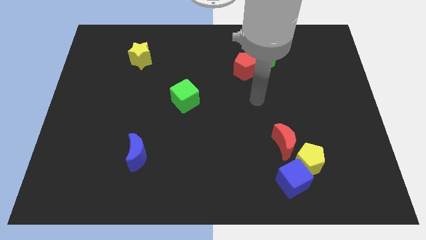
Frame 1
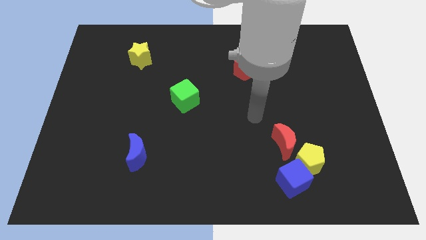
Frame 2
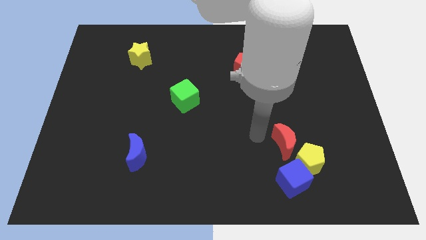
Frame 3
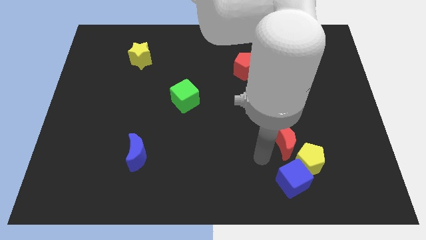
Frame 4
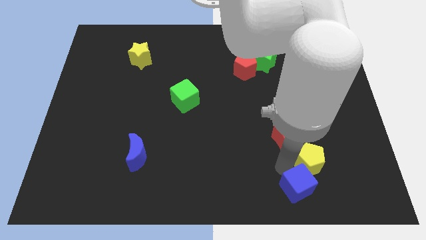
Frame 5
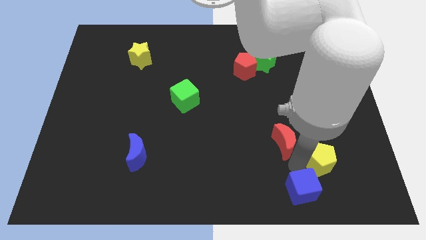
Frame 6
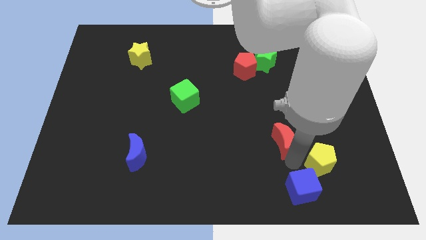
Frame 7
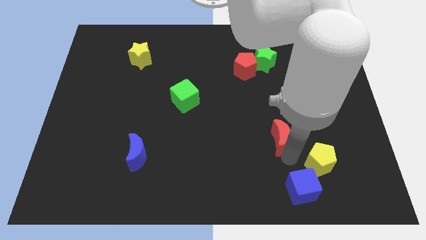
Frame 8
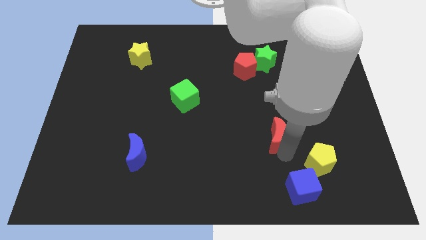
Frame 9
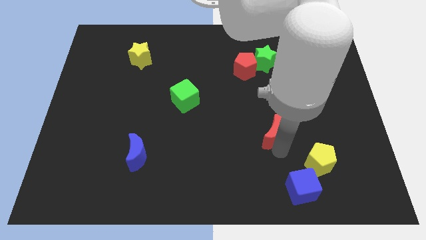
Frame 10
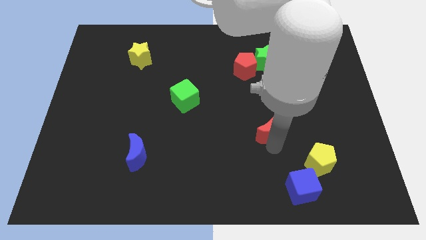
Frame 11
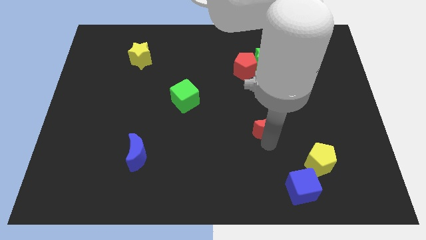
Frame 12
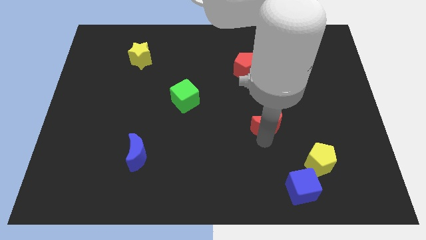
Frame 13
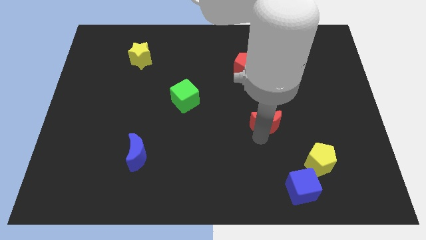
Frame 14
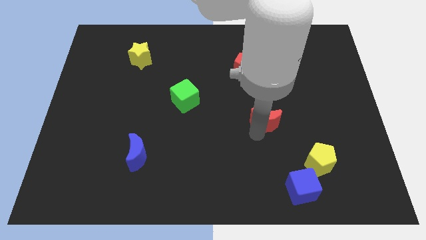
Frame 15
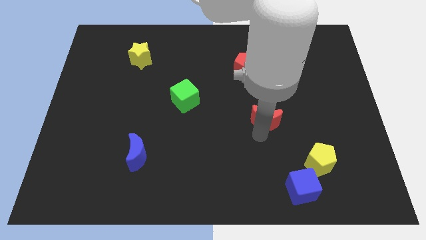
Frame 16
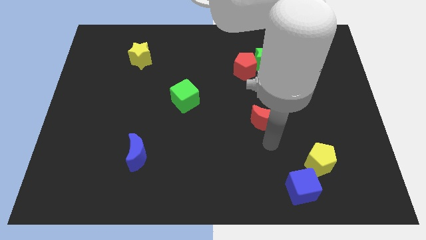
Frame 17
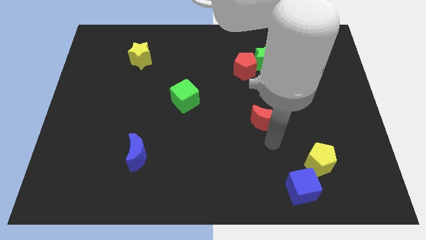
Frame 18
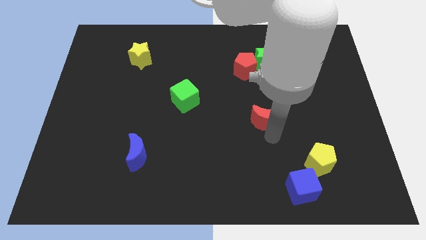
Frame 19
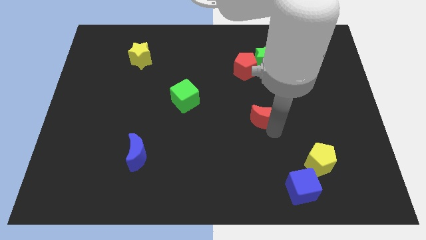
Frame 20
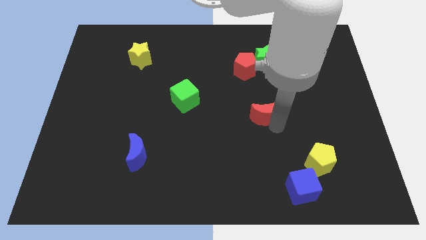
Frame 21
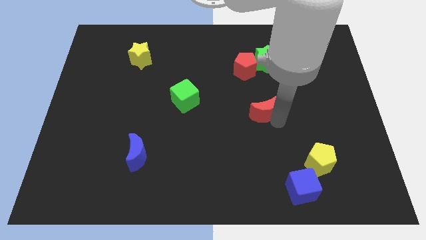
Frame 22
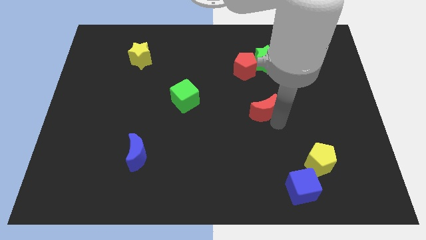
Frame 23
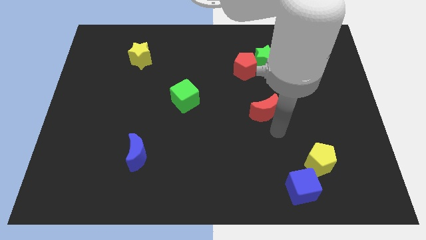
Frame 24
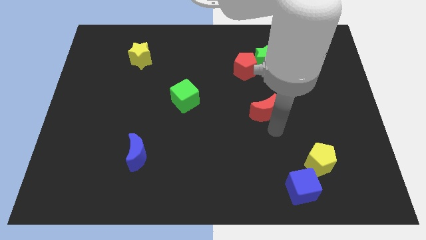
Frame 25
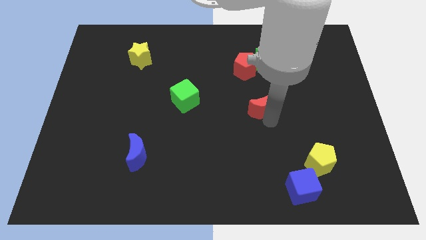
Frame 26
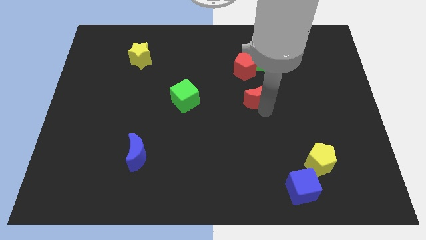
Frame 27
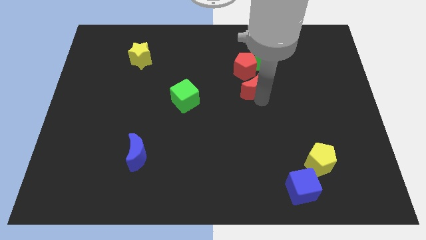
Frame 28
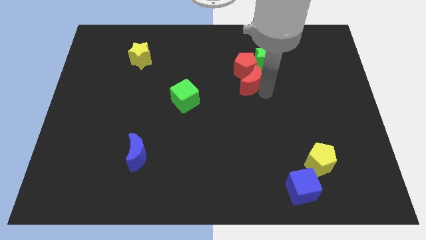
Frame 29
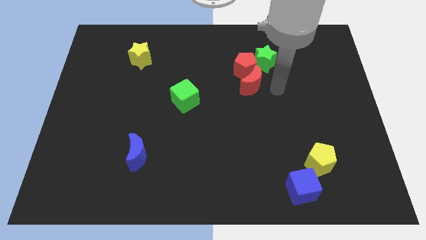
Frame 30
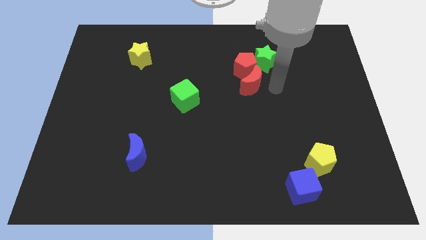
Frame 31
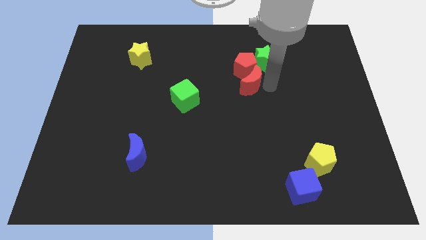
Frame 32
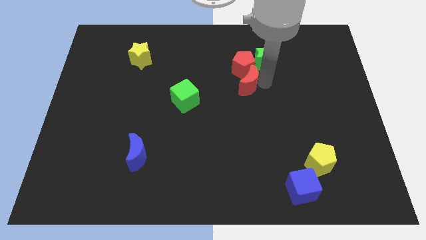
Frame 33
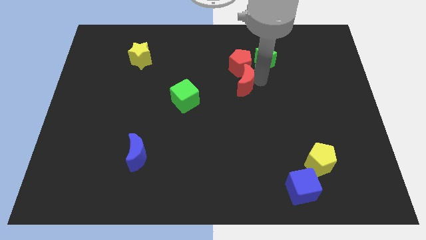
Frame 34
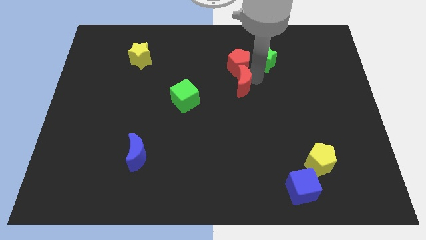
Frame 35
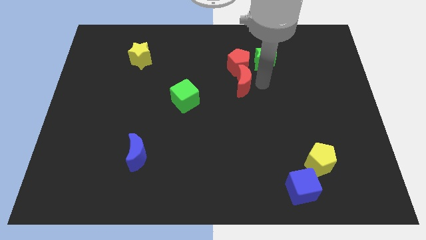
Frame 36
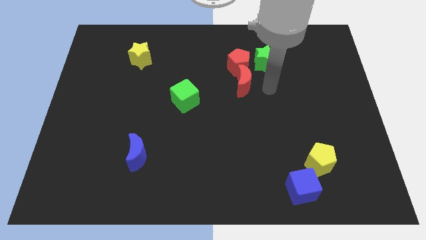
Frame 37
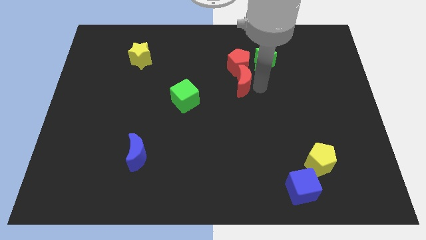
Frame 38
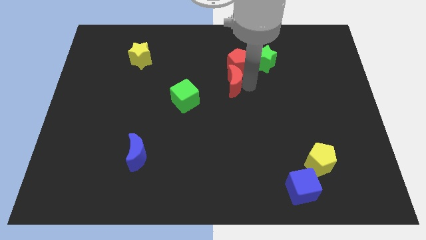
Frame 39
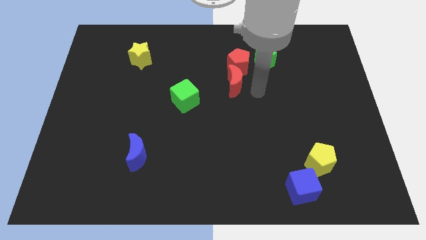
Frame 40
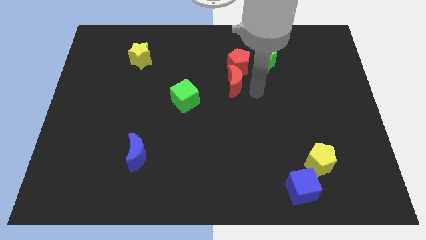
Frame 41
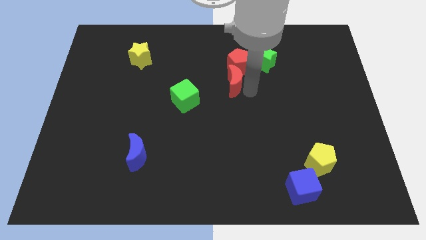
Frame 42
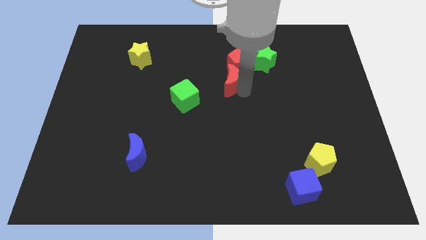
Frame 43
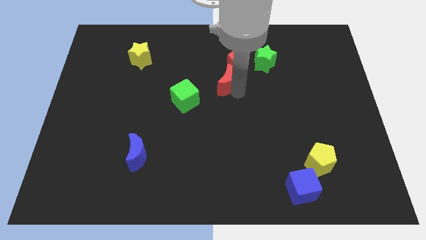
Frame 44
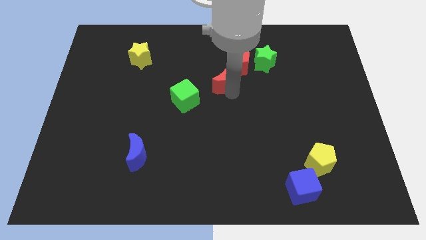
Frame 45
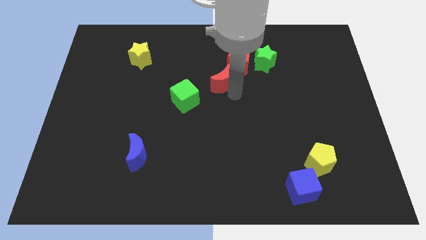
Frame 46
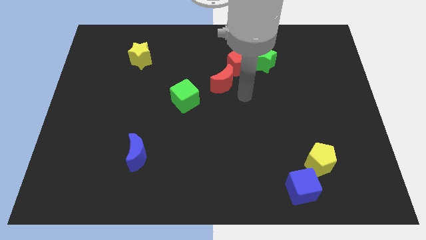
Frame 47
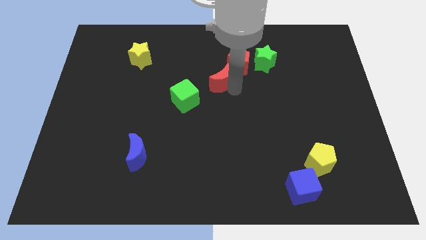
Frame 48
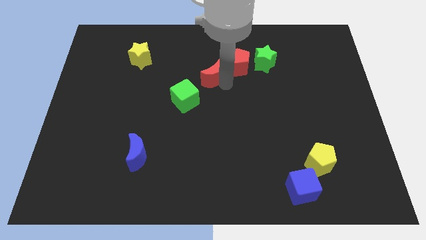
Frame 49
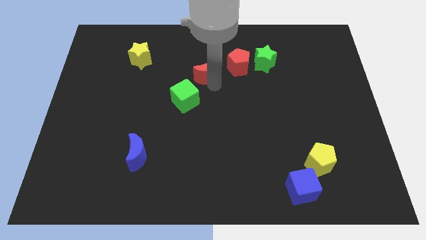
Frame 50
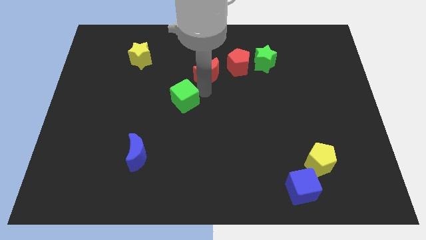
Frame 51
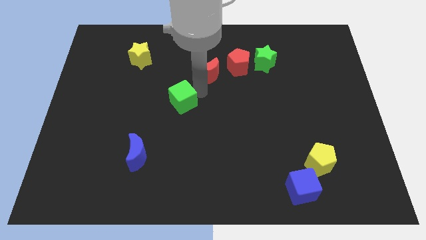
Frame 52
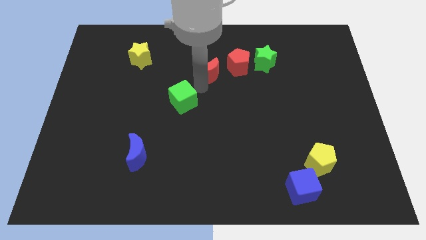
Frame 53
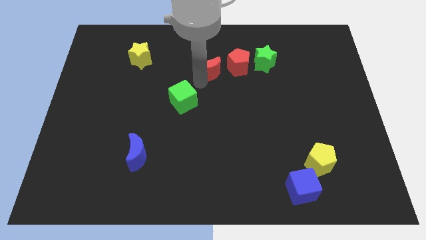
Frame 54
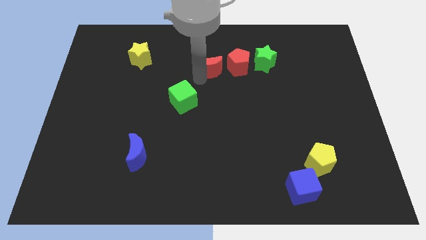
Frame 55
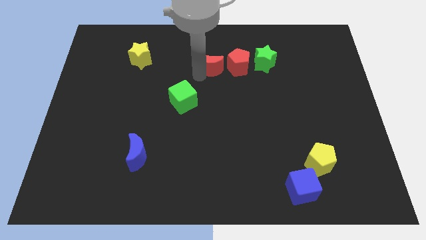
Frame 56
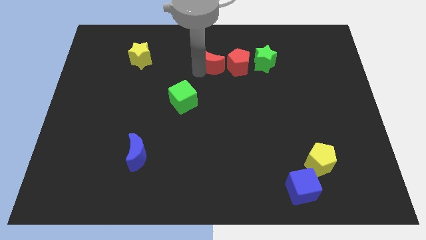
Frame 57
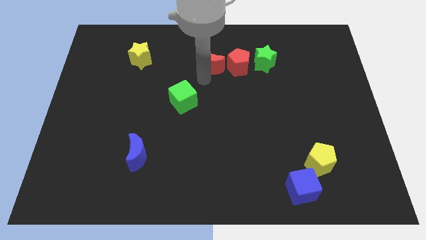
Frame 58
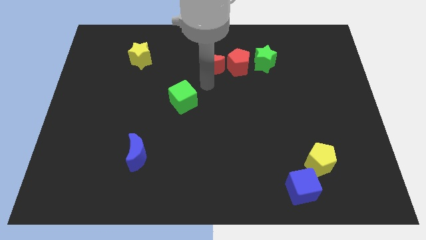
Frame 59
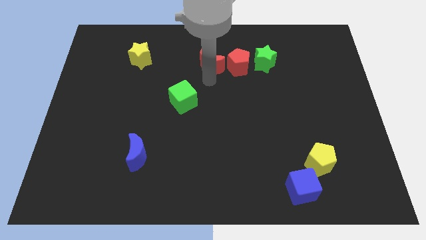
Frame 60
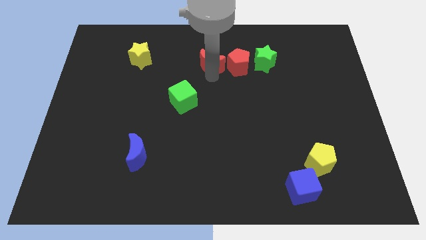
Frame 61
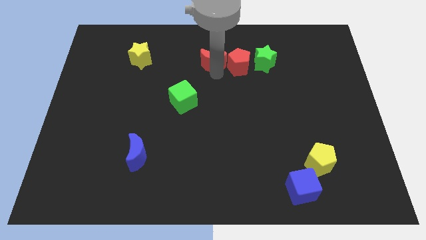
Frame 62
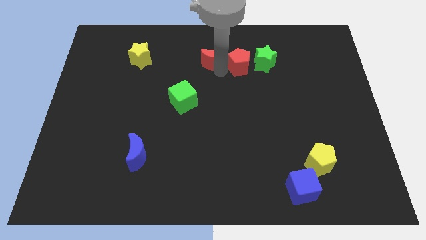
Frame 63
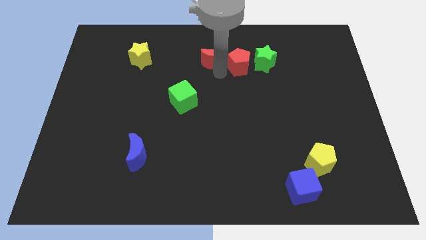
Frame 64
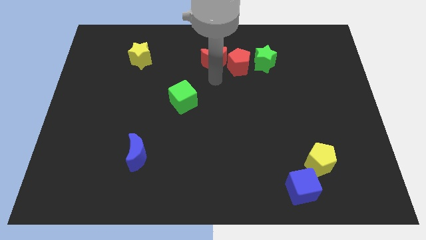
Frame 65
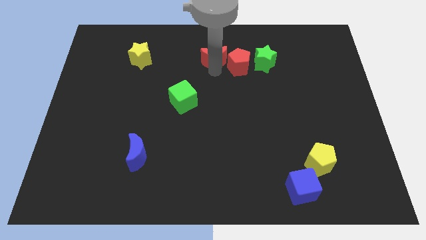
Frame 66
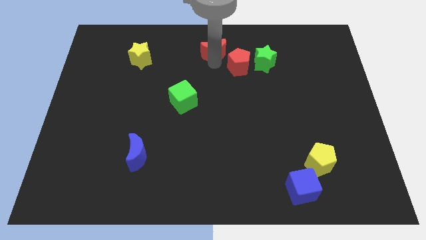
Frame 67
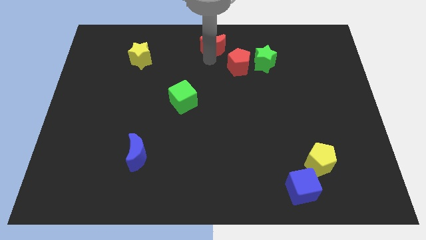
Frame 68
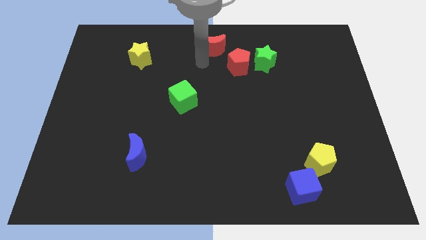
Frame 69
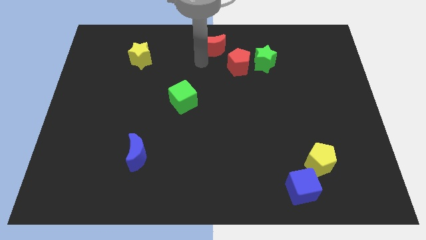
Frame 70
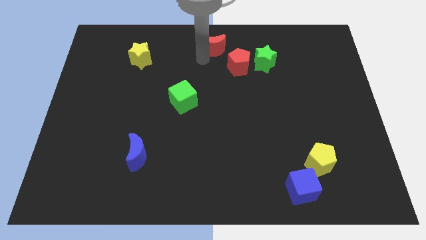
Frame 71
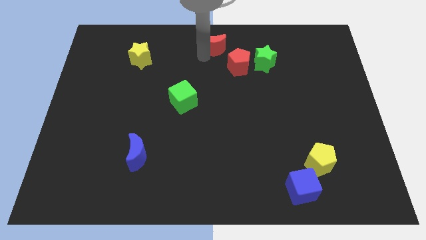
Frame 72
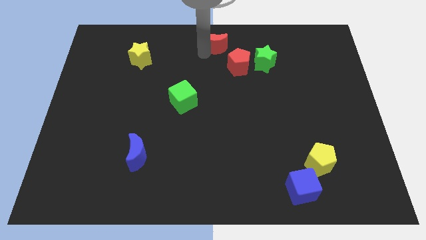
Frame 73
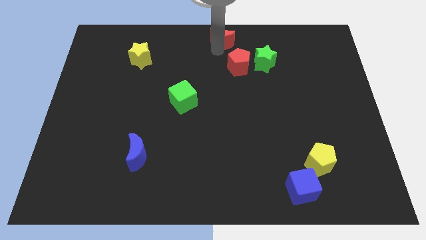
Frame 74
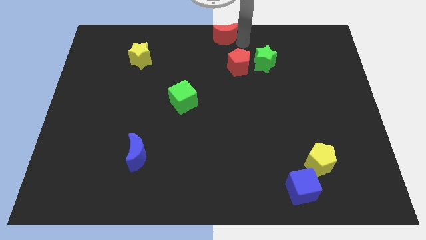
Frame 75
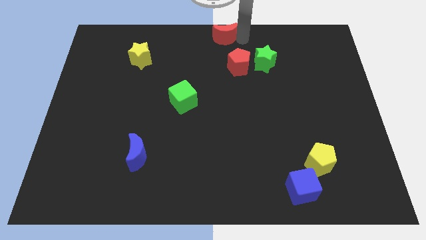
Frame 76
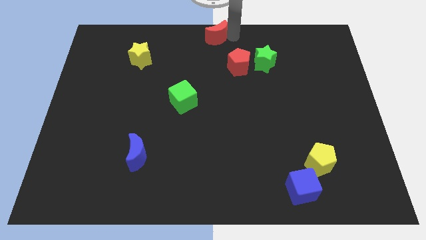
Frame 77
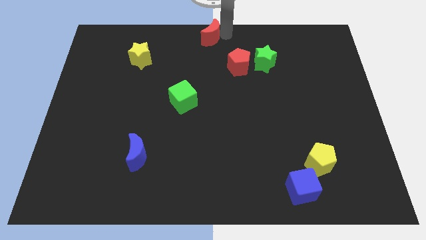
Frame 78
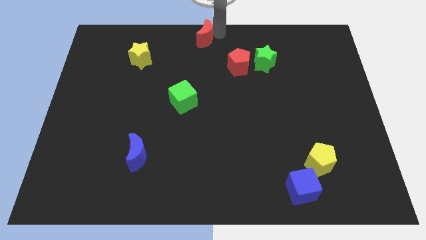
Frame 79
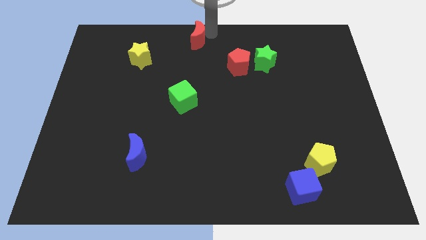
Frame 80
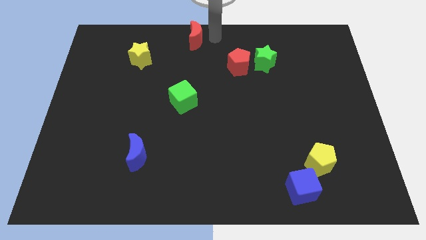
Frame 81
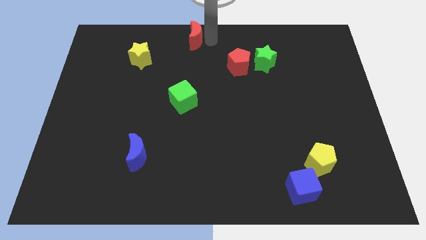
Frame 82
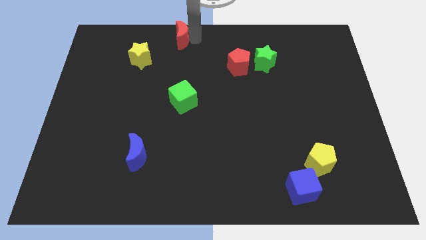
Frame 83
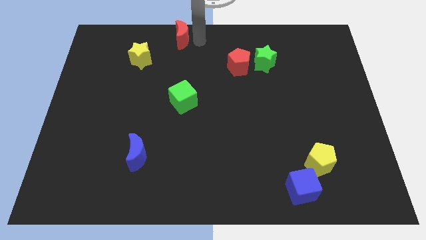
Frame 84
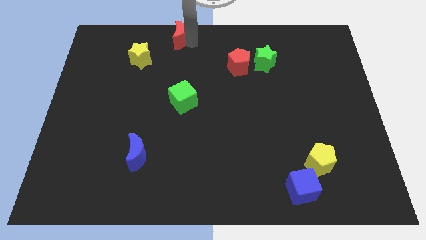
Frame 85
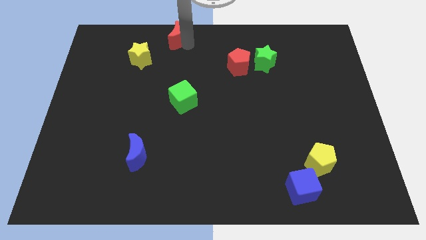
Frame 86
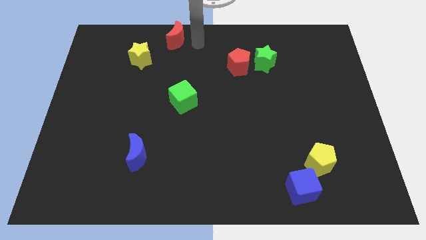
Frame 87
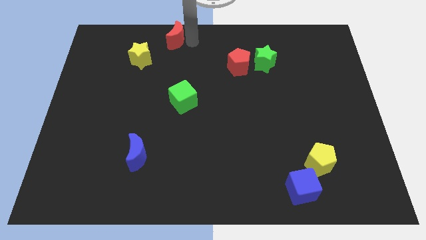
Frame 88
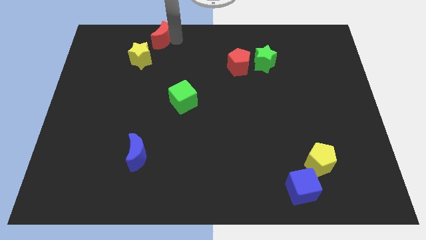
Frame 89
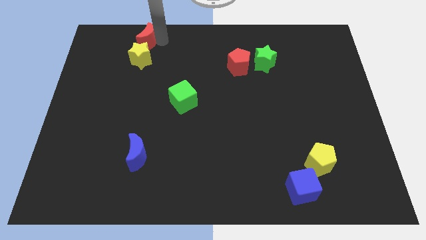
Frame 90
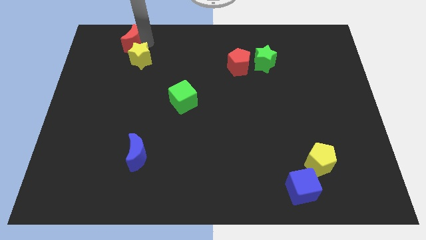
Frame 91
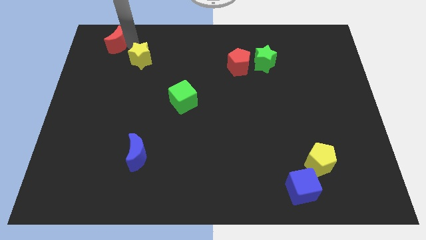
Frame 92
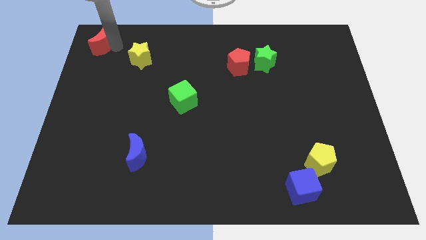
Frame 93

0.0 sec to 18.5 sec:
push the red moon to the top left
